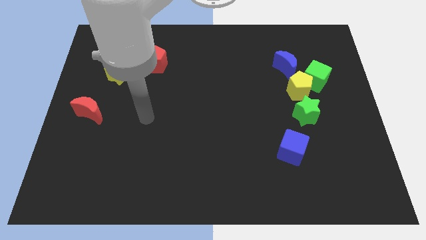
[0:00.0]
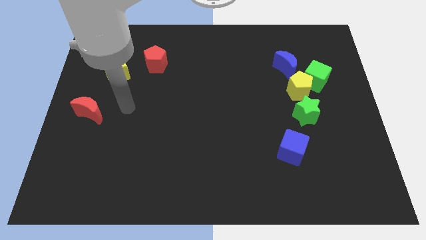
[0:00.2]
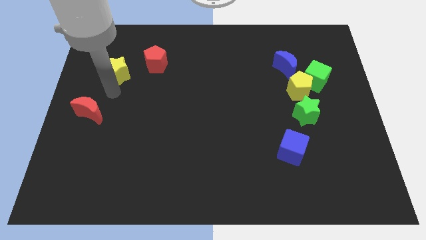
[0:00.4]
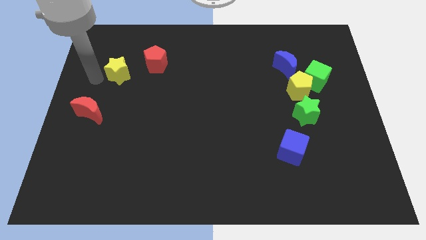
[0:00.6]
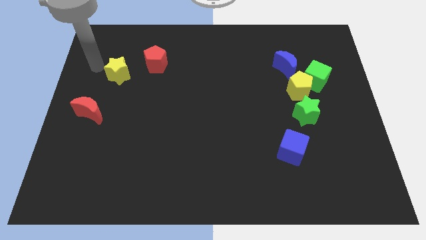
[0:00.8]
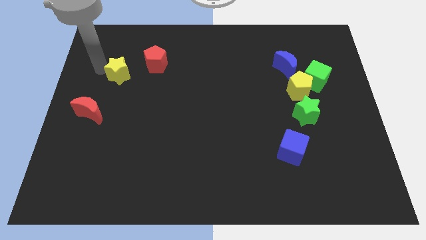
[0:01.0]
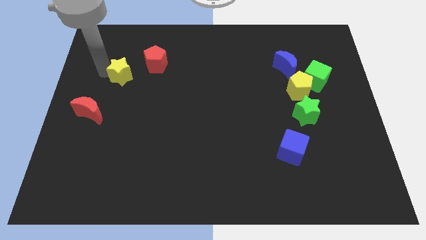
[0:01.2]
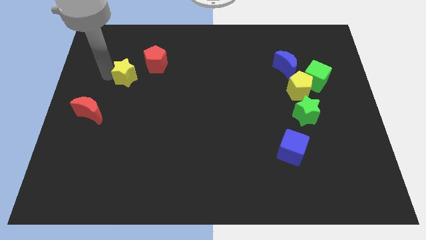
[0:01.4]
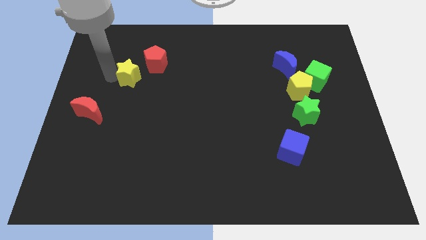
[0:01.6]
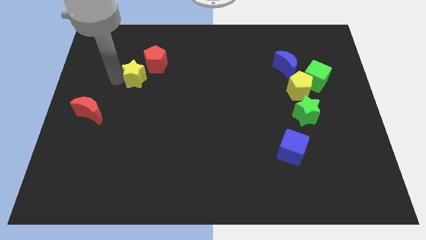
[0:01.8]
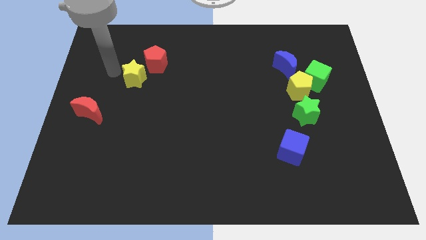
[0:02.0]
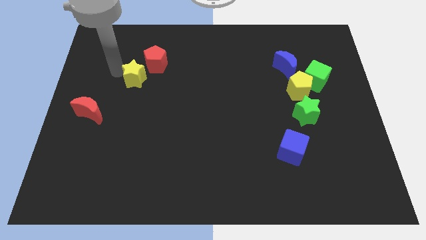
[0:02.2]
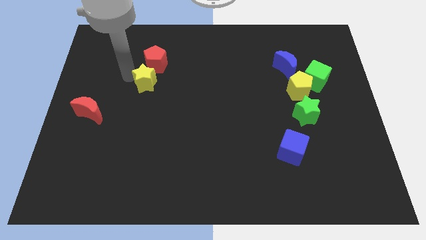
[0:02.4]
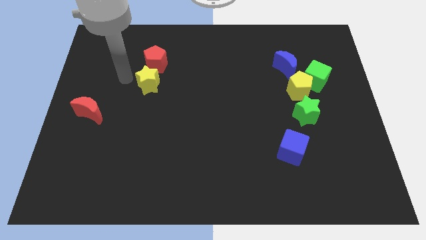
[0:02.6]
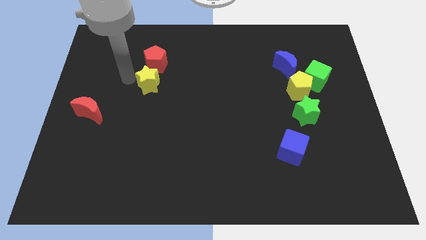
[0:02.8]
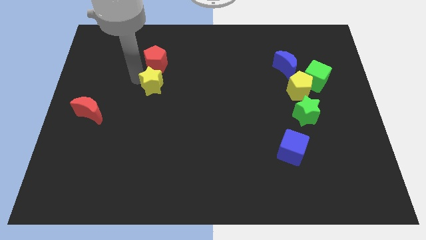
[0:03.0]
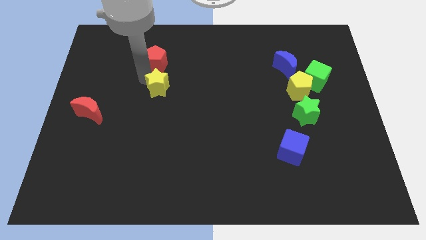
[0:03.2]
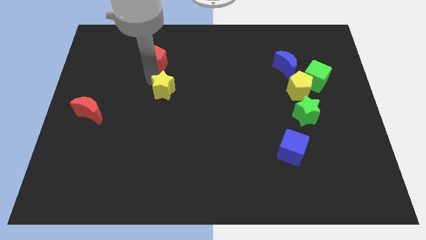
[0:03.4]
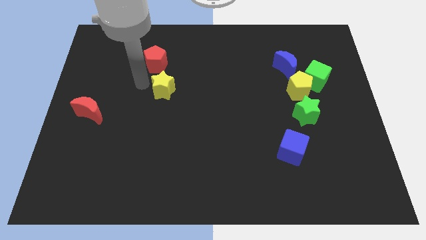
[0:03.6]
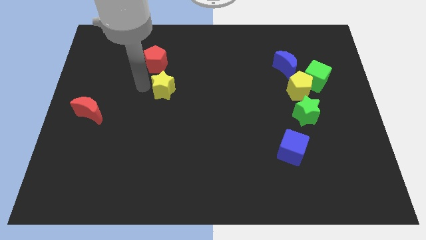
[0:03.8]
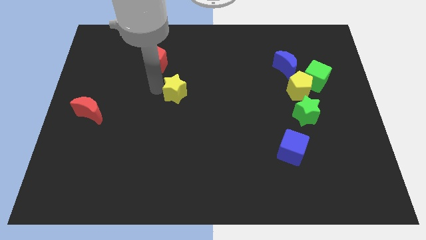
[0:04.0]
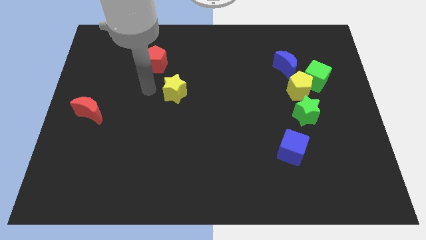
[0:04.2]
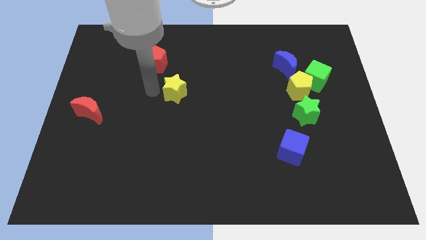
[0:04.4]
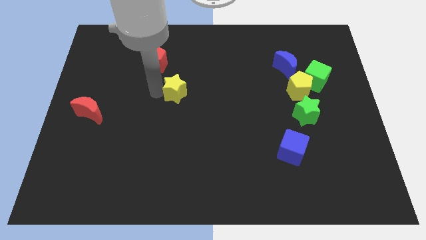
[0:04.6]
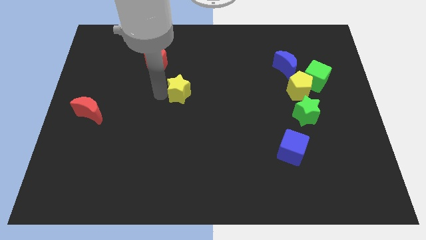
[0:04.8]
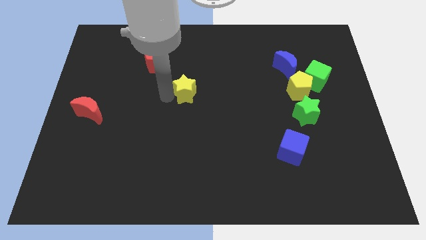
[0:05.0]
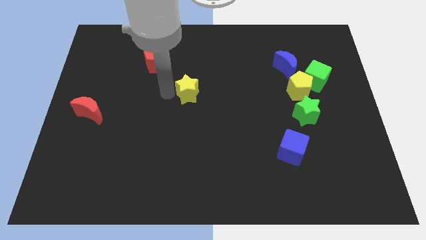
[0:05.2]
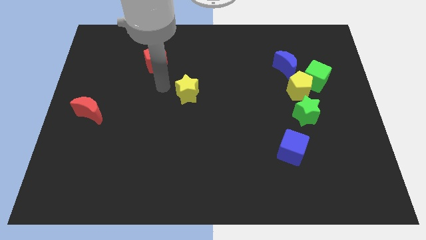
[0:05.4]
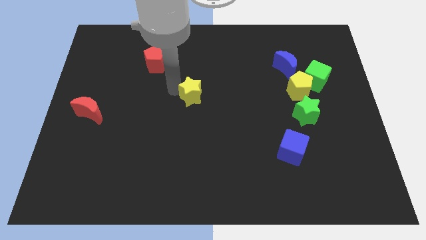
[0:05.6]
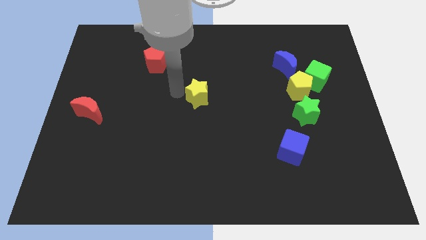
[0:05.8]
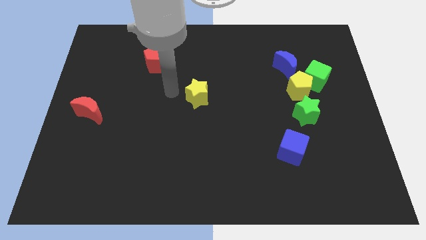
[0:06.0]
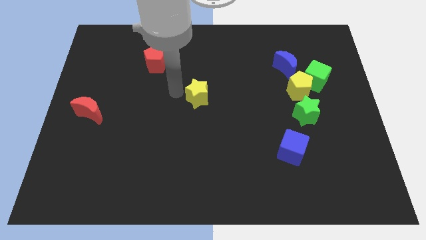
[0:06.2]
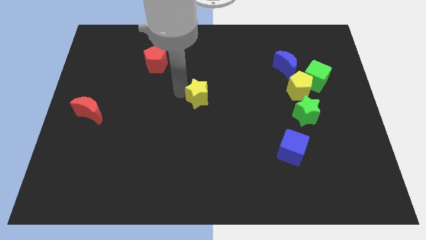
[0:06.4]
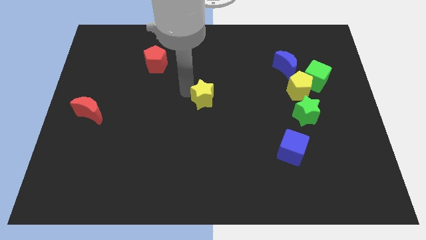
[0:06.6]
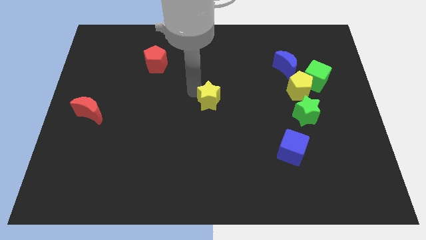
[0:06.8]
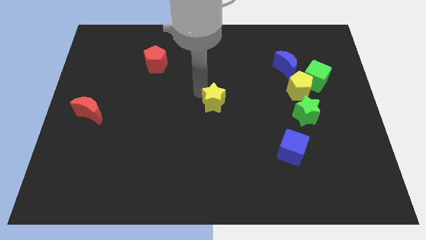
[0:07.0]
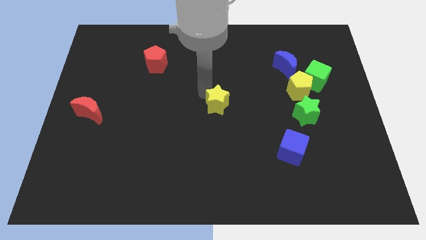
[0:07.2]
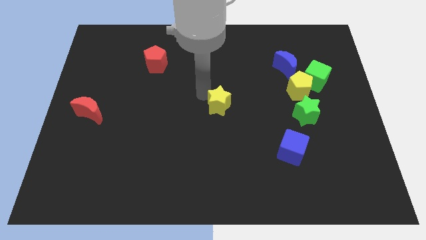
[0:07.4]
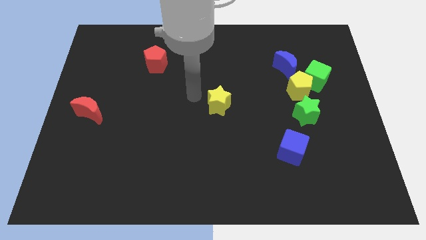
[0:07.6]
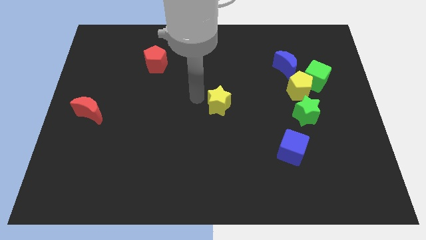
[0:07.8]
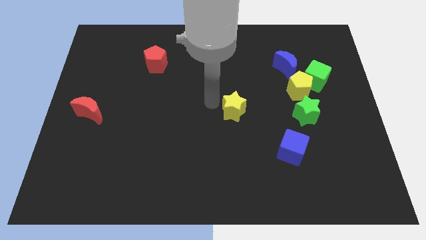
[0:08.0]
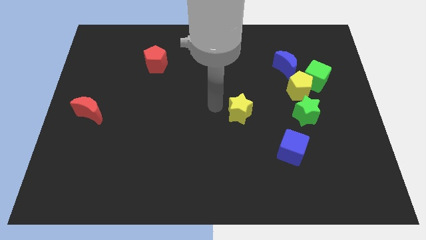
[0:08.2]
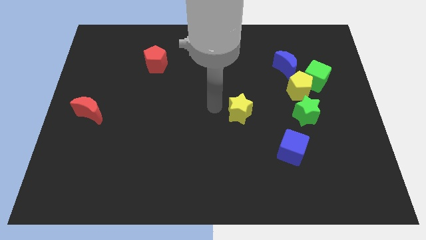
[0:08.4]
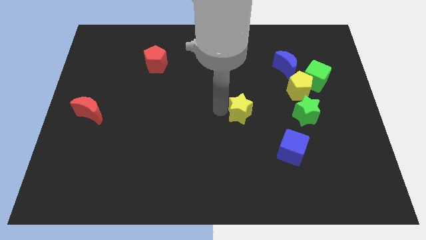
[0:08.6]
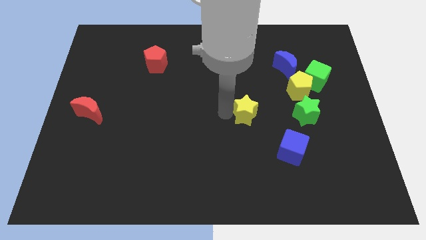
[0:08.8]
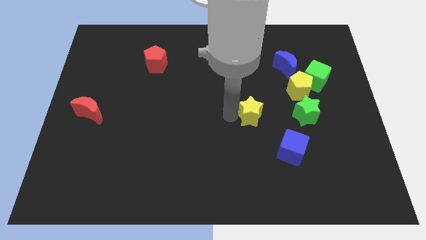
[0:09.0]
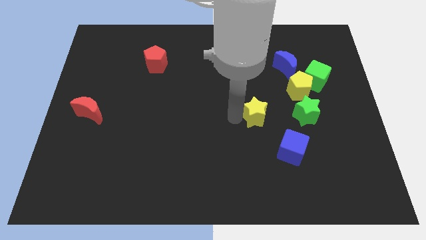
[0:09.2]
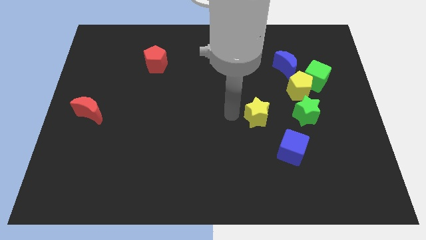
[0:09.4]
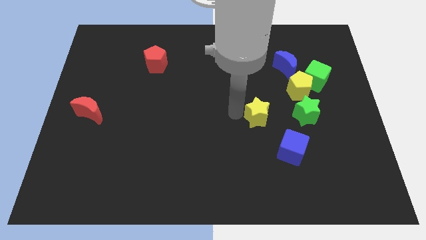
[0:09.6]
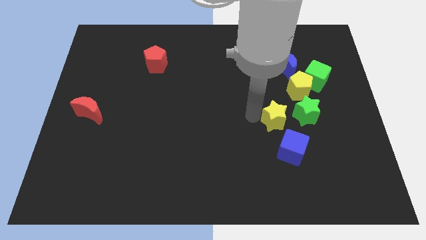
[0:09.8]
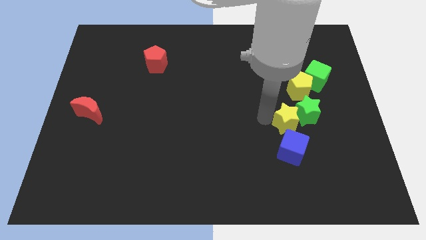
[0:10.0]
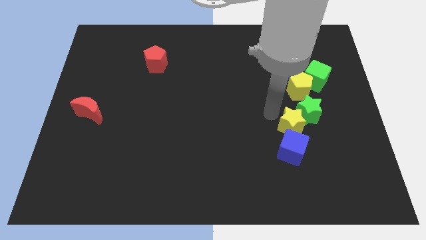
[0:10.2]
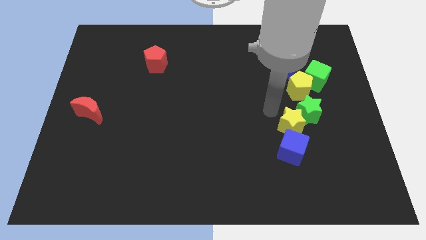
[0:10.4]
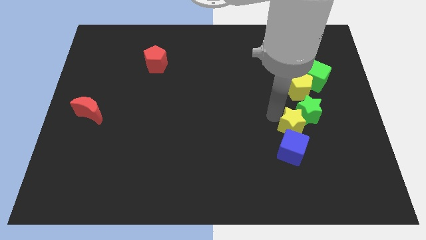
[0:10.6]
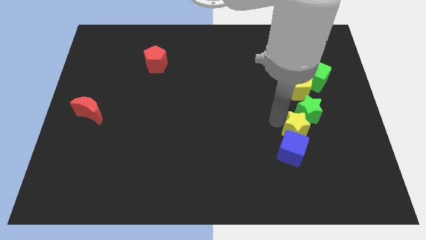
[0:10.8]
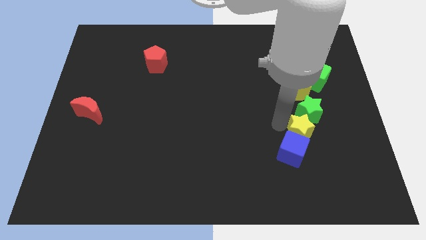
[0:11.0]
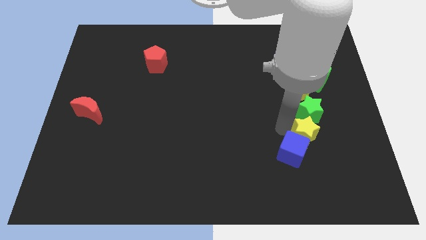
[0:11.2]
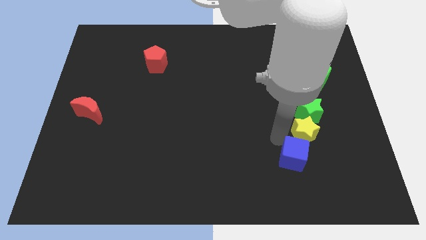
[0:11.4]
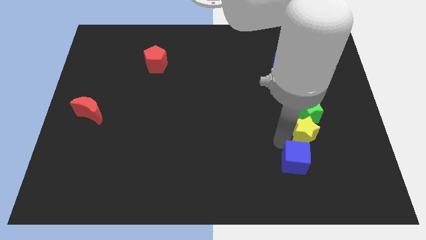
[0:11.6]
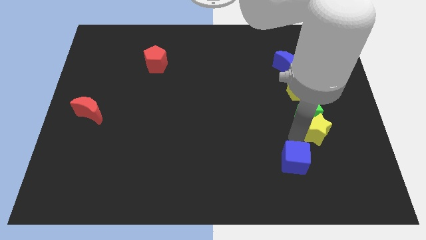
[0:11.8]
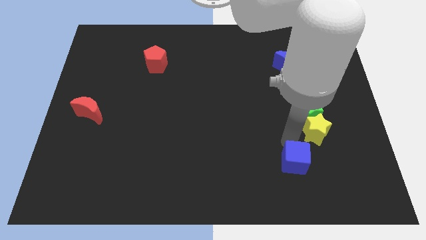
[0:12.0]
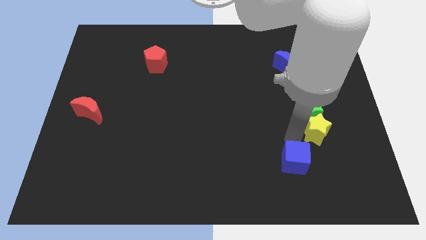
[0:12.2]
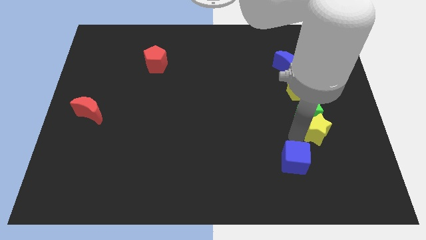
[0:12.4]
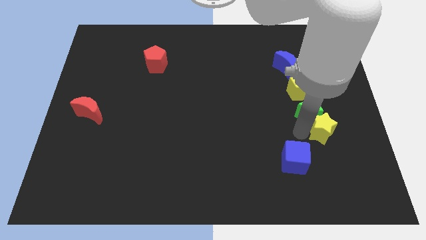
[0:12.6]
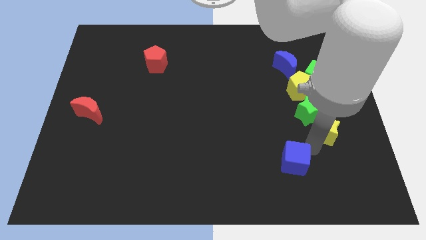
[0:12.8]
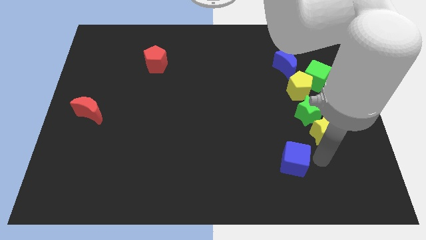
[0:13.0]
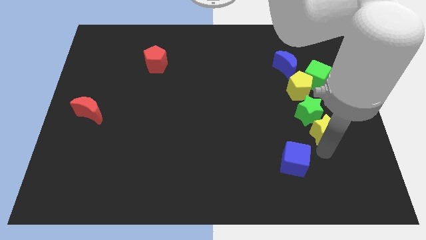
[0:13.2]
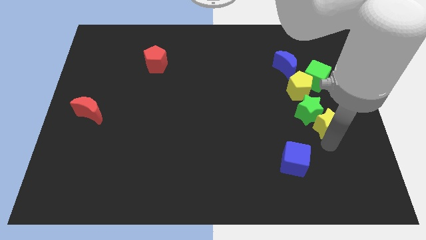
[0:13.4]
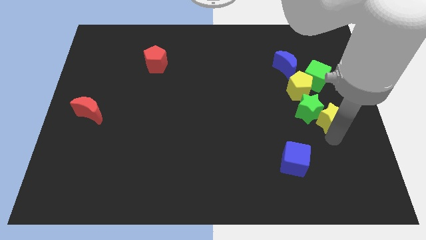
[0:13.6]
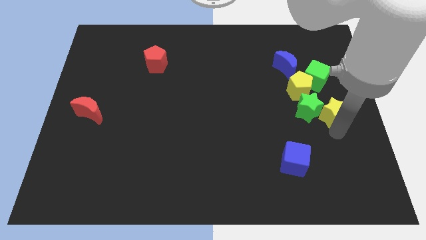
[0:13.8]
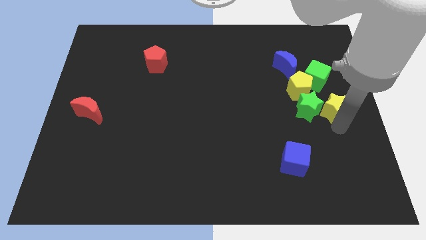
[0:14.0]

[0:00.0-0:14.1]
push the yellow star to the top right side of the green star

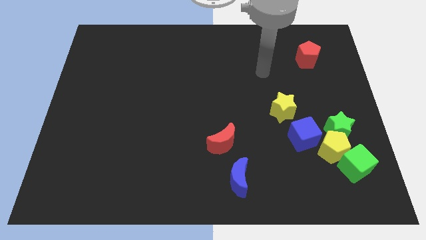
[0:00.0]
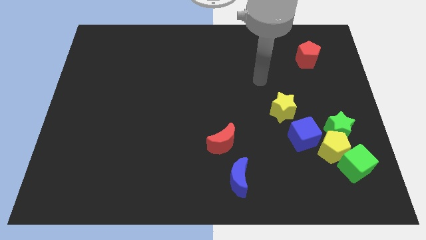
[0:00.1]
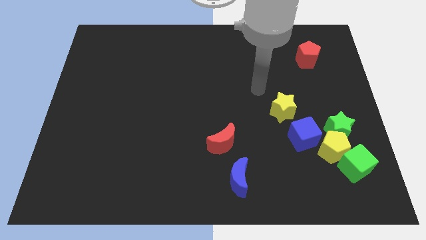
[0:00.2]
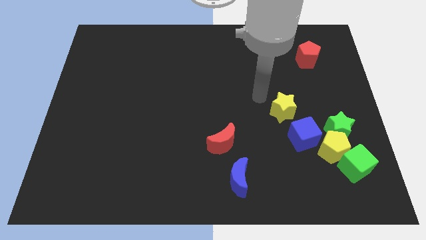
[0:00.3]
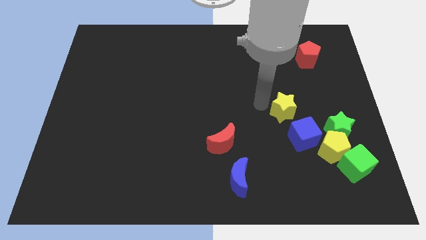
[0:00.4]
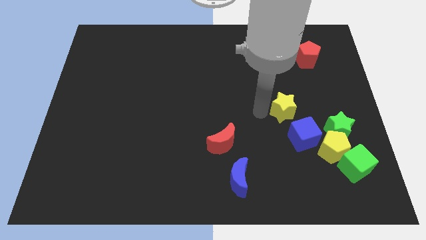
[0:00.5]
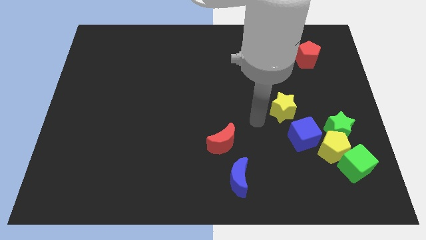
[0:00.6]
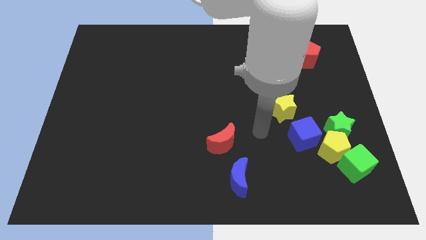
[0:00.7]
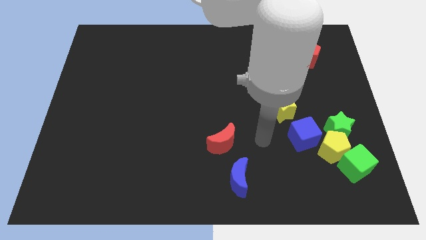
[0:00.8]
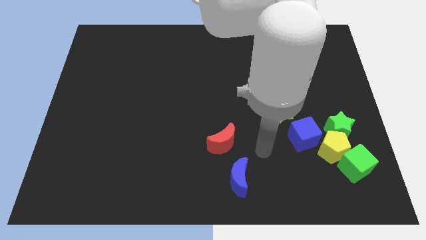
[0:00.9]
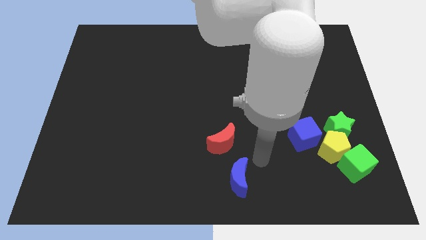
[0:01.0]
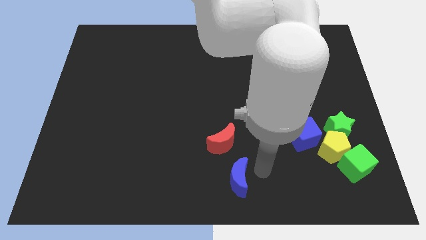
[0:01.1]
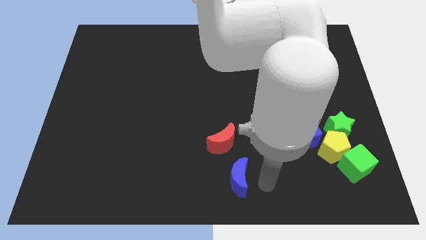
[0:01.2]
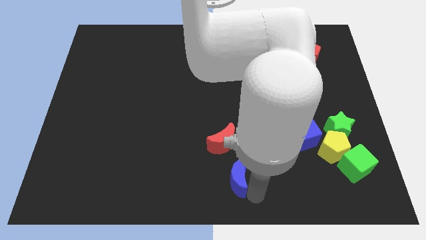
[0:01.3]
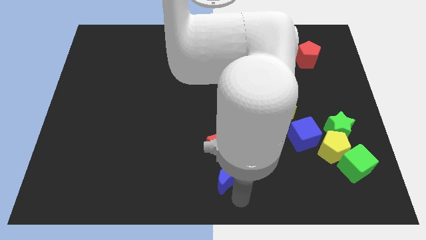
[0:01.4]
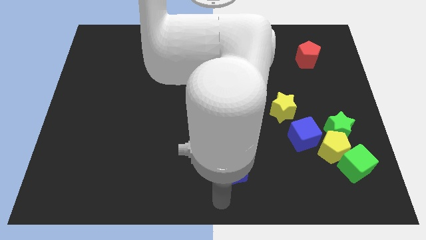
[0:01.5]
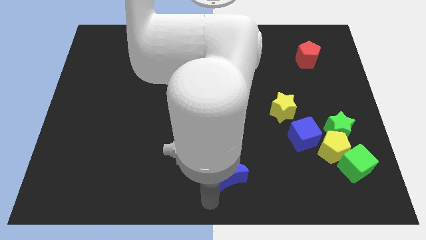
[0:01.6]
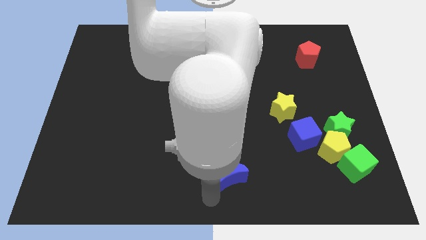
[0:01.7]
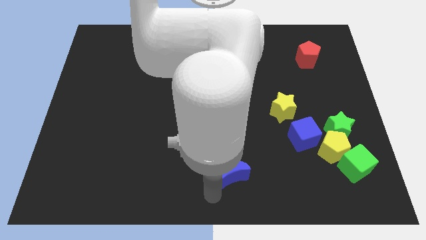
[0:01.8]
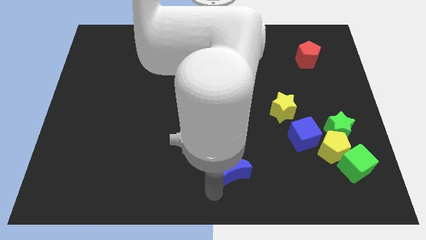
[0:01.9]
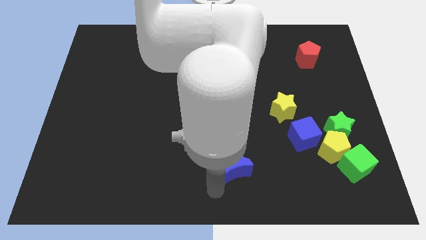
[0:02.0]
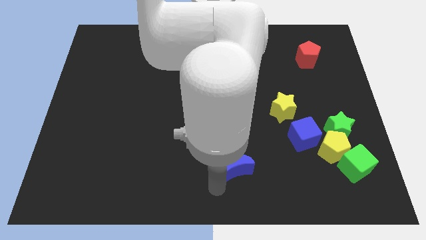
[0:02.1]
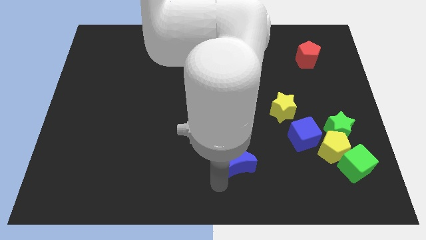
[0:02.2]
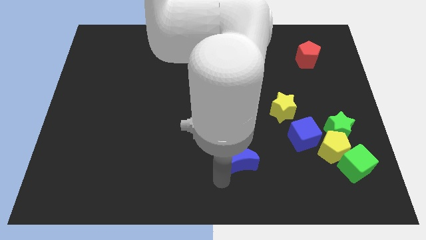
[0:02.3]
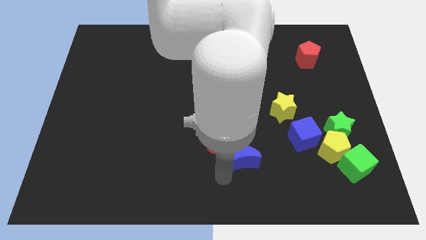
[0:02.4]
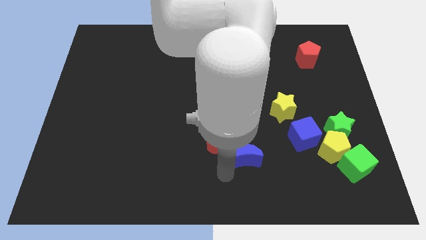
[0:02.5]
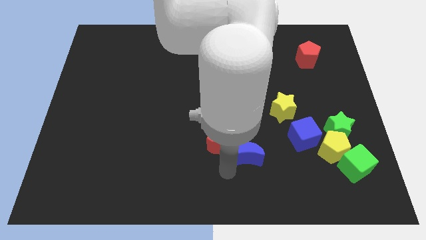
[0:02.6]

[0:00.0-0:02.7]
move the blue moon left of the blue cube
